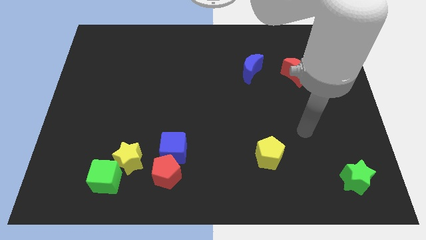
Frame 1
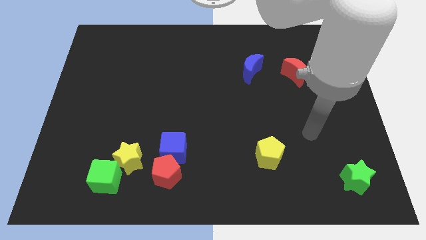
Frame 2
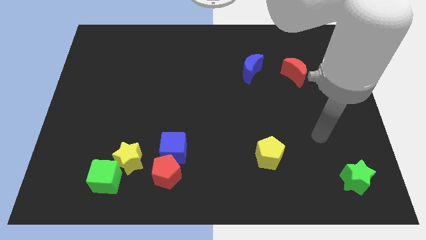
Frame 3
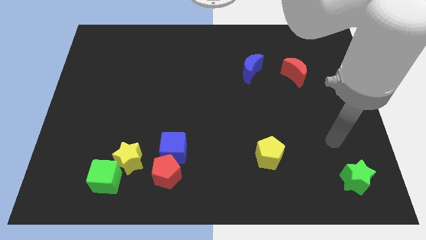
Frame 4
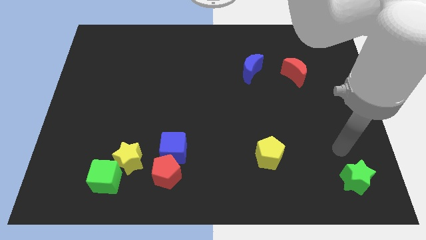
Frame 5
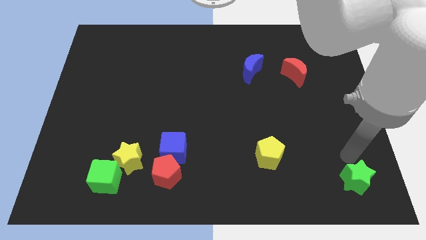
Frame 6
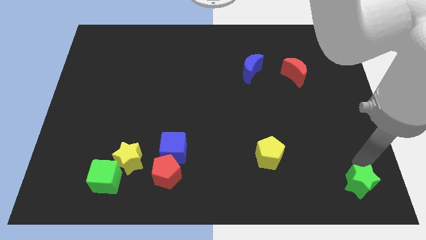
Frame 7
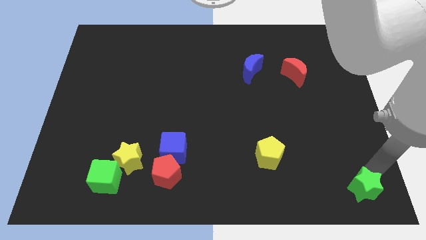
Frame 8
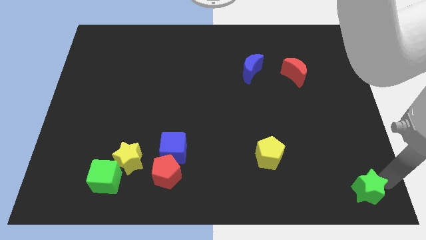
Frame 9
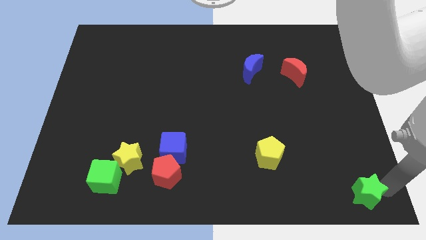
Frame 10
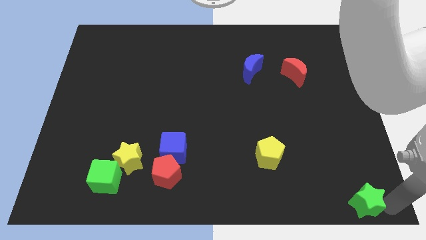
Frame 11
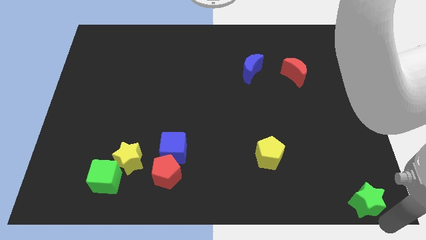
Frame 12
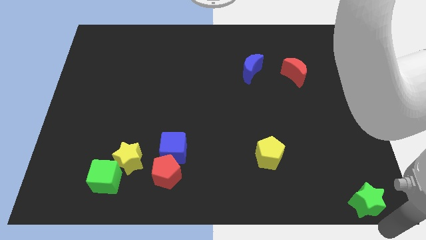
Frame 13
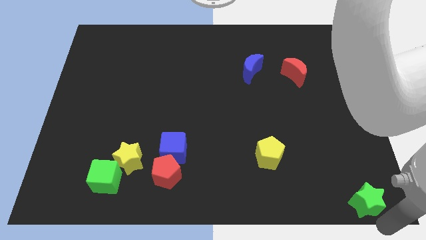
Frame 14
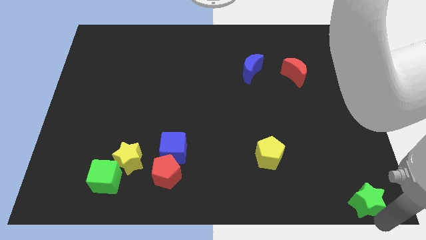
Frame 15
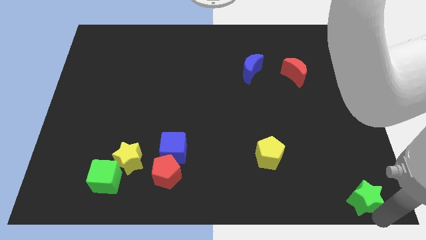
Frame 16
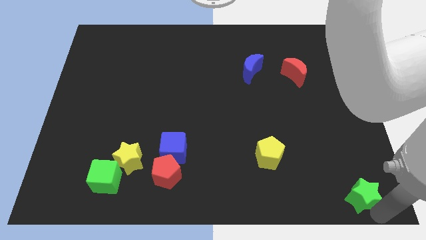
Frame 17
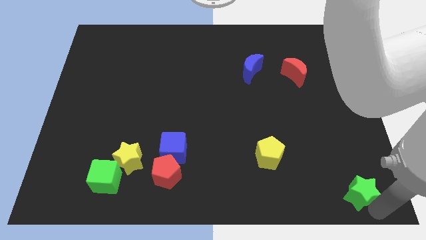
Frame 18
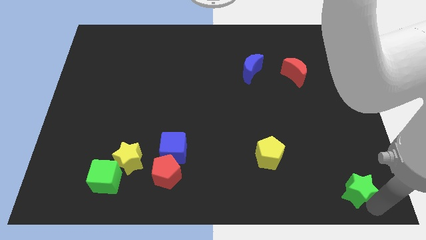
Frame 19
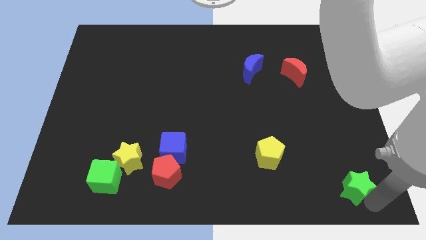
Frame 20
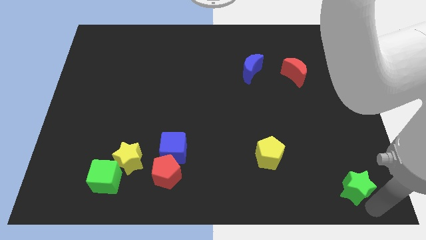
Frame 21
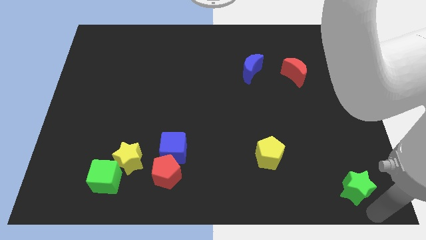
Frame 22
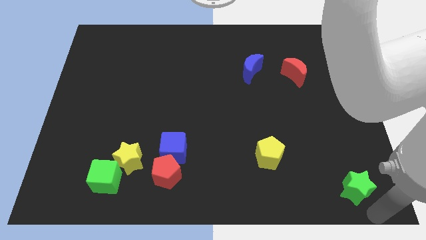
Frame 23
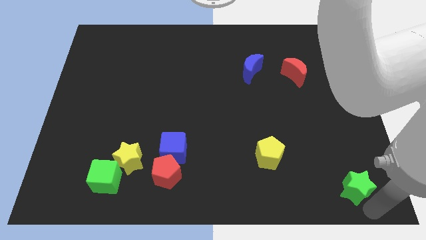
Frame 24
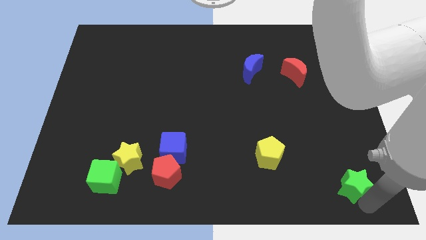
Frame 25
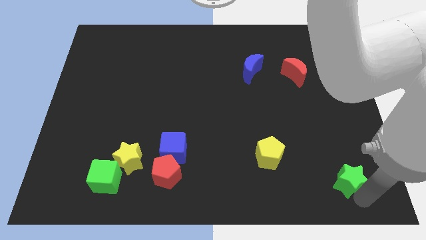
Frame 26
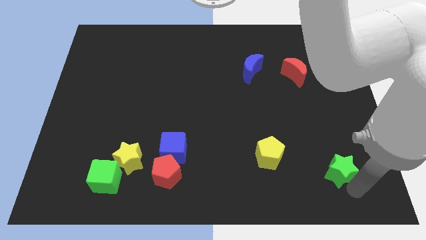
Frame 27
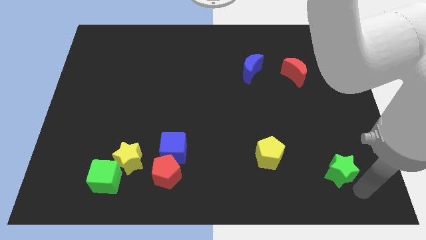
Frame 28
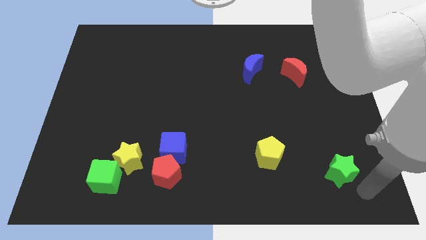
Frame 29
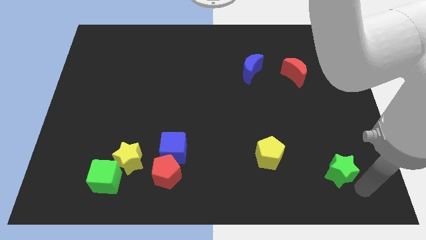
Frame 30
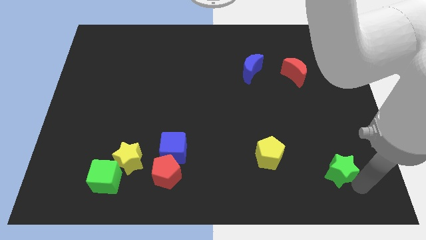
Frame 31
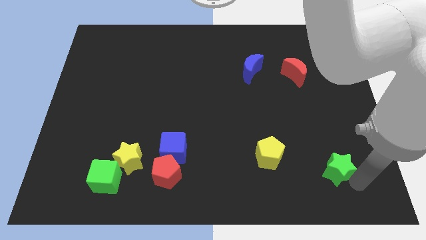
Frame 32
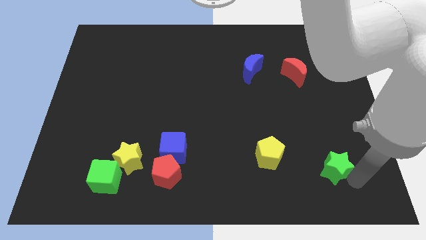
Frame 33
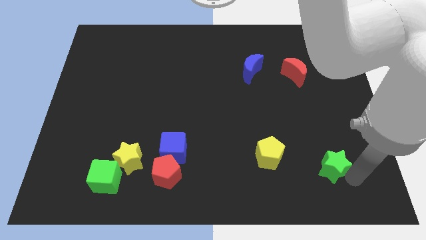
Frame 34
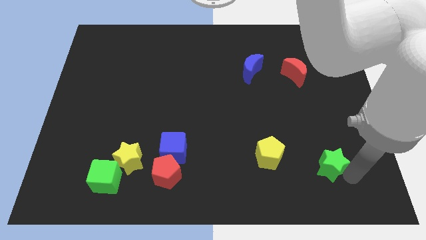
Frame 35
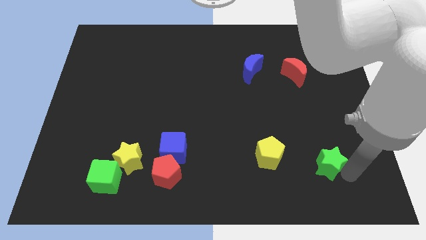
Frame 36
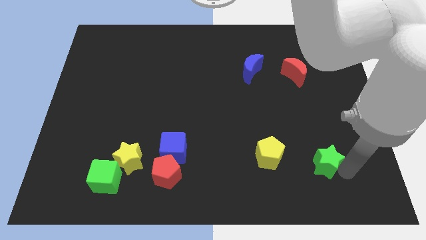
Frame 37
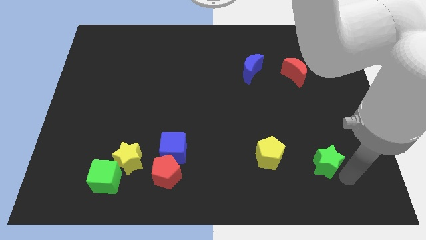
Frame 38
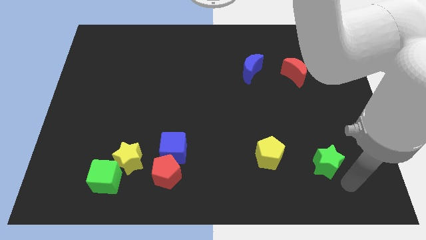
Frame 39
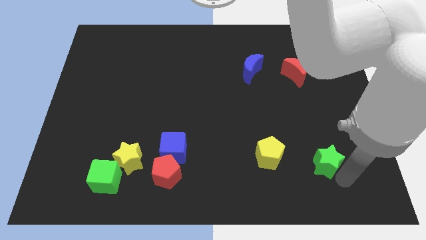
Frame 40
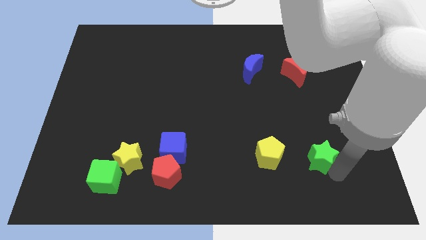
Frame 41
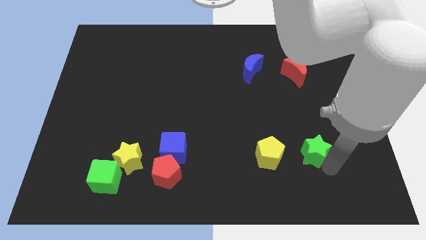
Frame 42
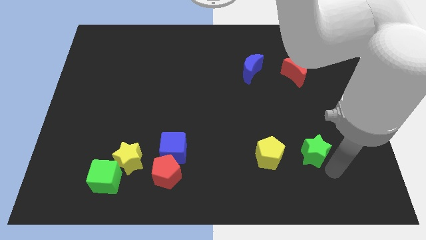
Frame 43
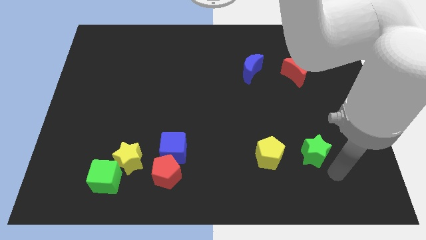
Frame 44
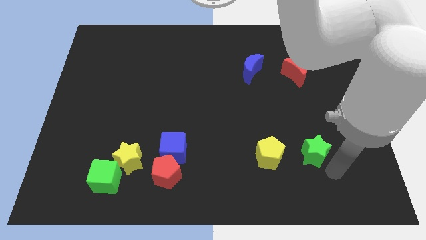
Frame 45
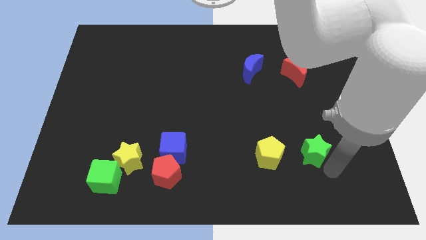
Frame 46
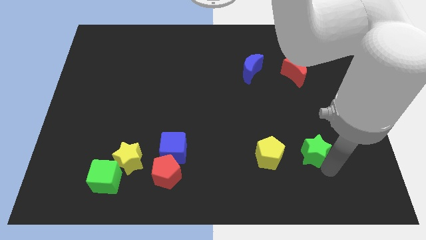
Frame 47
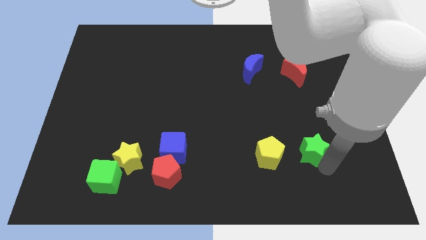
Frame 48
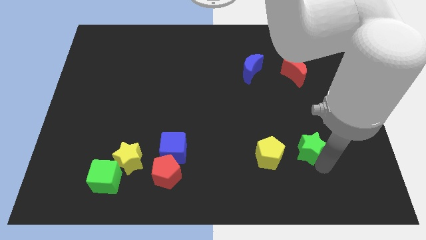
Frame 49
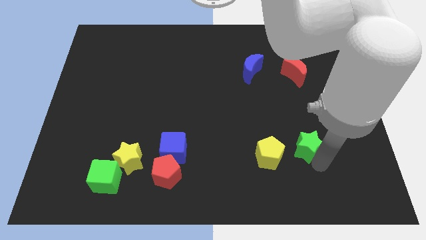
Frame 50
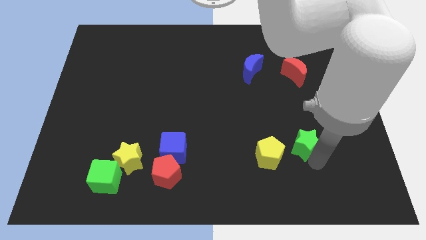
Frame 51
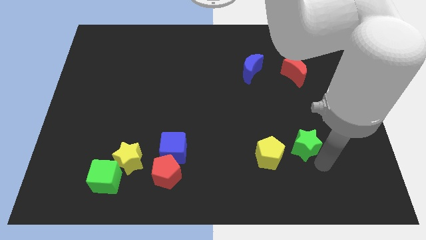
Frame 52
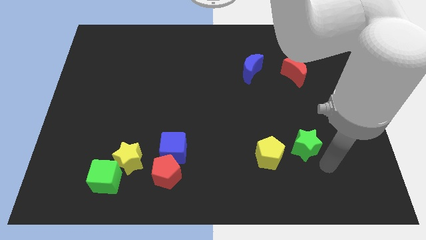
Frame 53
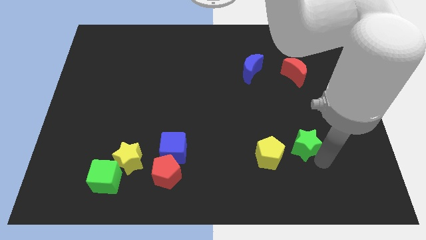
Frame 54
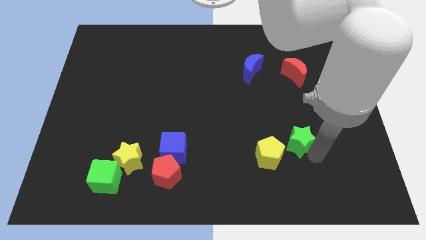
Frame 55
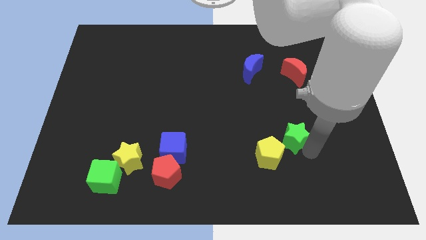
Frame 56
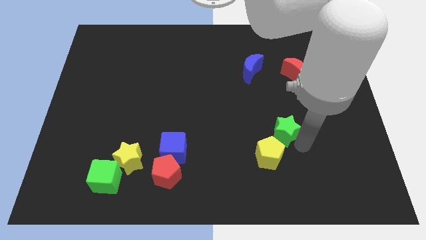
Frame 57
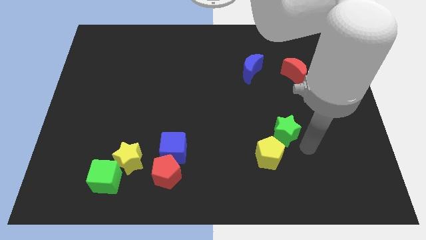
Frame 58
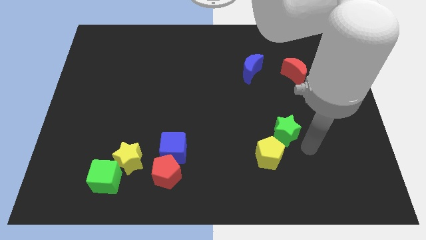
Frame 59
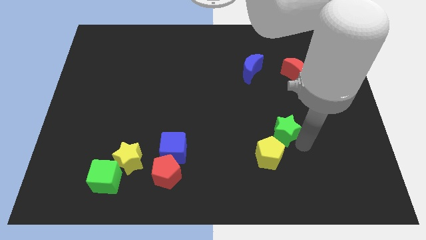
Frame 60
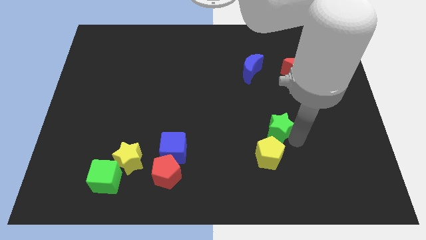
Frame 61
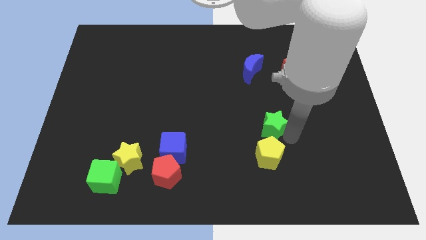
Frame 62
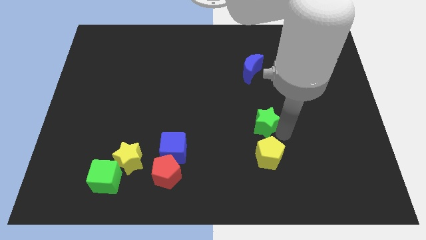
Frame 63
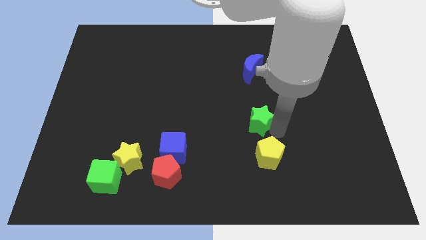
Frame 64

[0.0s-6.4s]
put the green star to the center of the board
